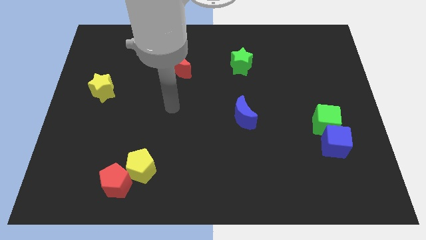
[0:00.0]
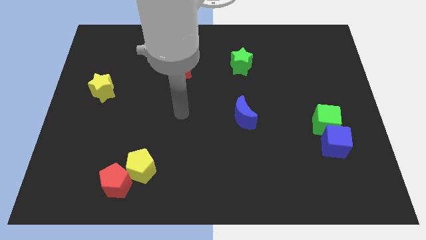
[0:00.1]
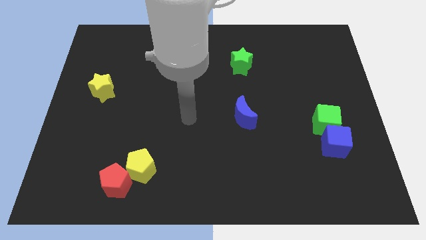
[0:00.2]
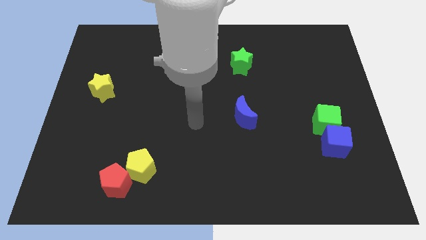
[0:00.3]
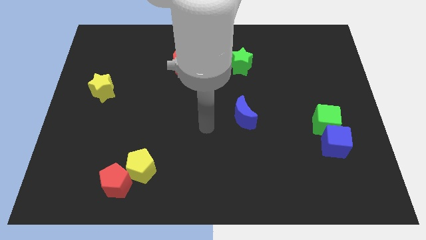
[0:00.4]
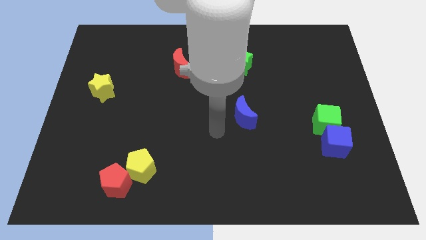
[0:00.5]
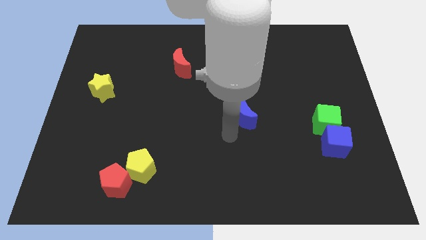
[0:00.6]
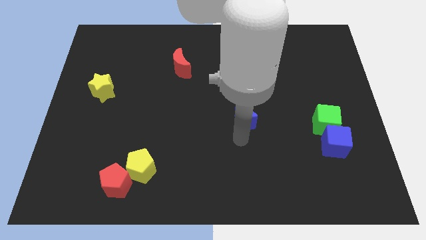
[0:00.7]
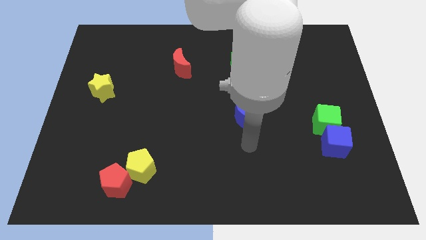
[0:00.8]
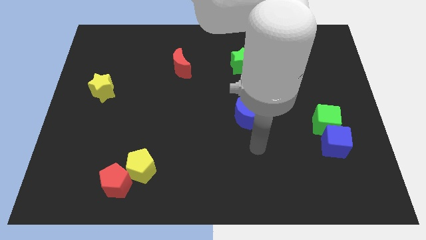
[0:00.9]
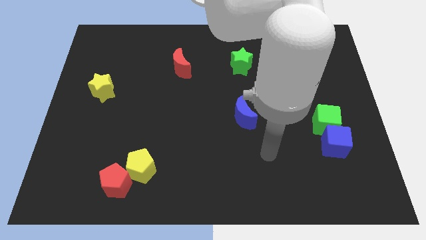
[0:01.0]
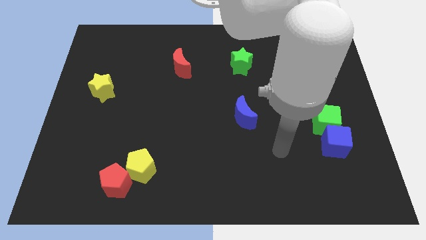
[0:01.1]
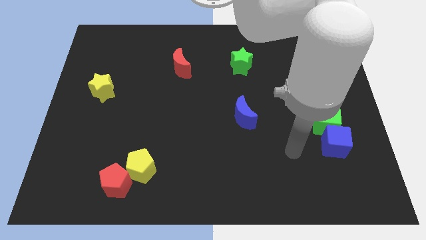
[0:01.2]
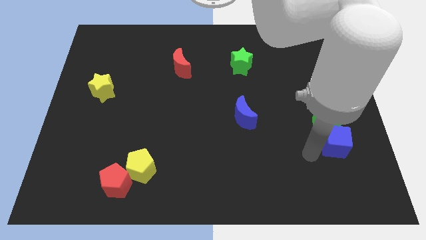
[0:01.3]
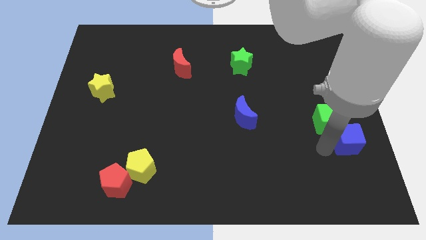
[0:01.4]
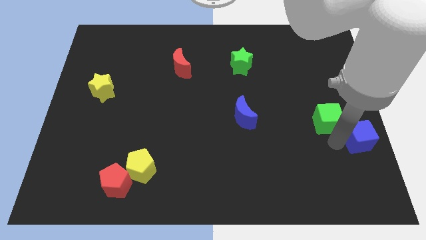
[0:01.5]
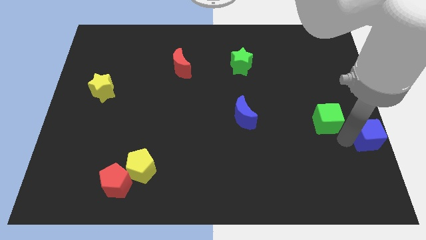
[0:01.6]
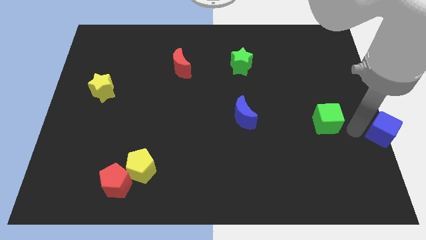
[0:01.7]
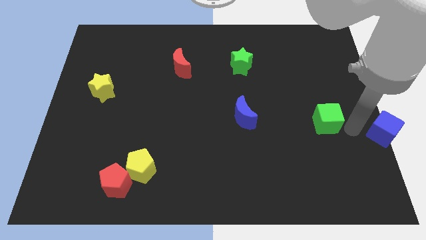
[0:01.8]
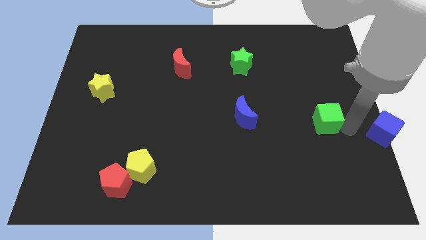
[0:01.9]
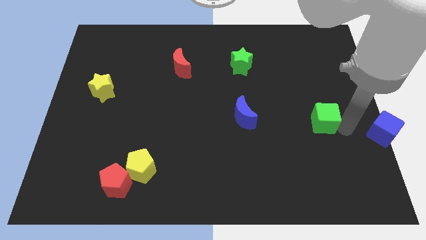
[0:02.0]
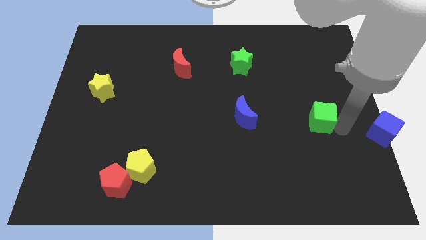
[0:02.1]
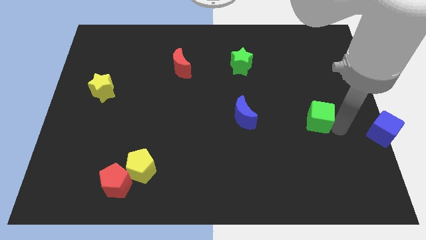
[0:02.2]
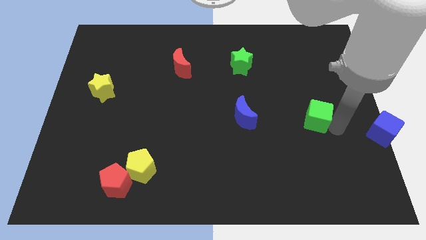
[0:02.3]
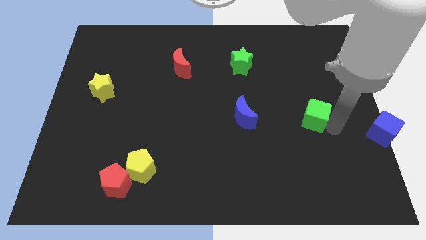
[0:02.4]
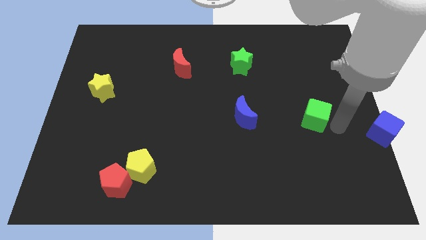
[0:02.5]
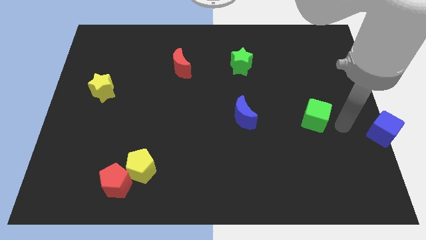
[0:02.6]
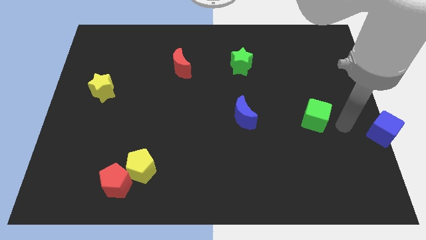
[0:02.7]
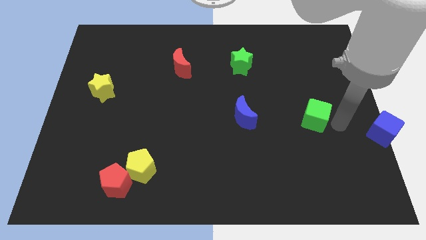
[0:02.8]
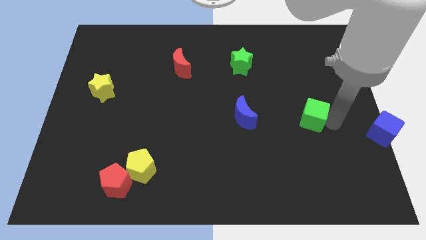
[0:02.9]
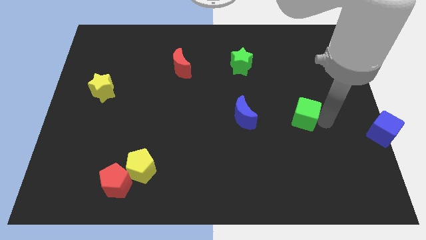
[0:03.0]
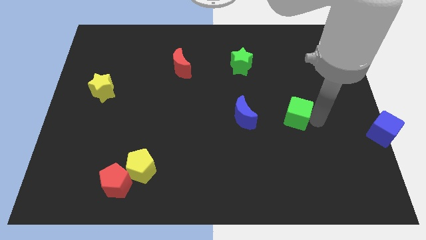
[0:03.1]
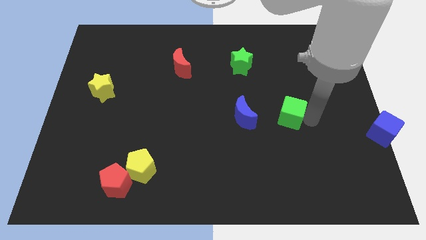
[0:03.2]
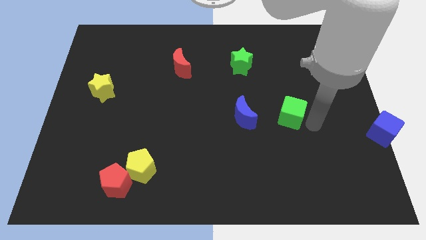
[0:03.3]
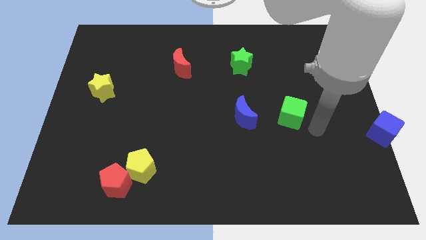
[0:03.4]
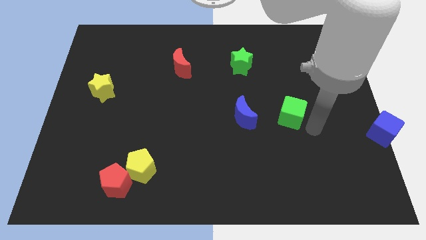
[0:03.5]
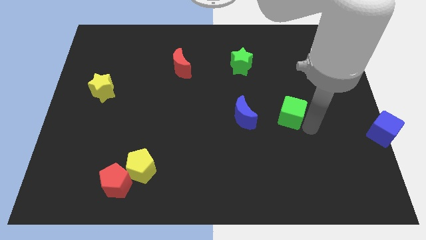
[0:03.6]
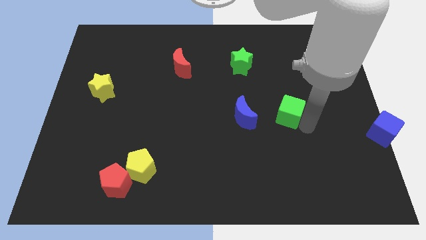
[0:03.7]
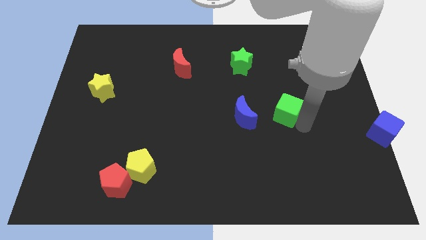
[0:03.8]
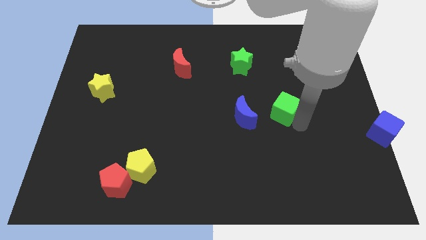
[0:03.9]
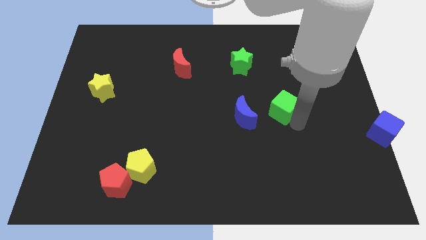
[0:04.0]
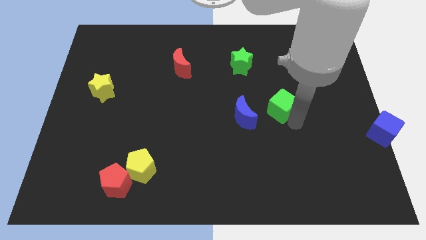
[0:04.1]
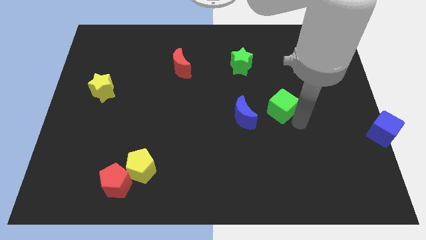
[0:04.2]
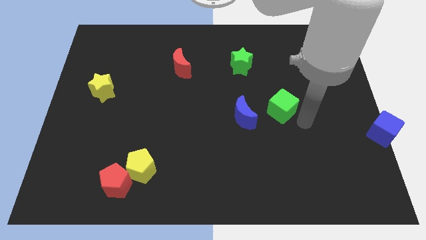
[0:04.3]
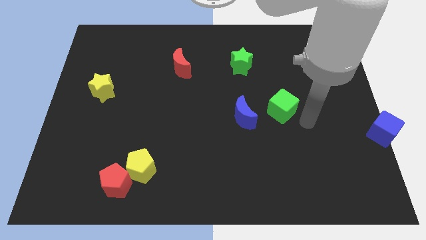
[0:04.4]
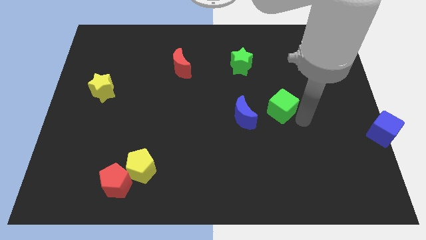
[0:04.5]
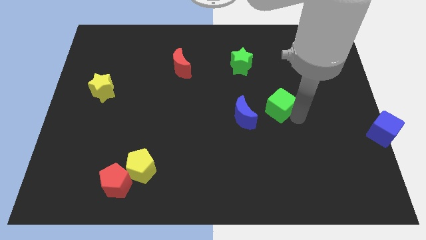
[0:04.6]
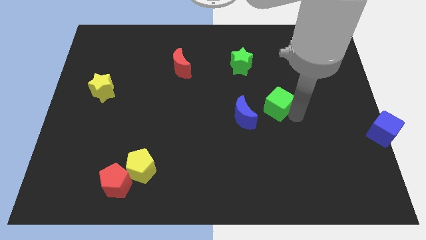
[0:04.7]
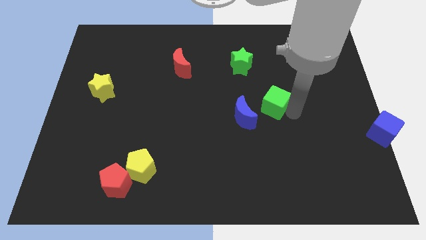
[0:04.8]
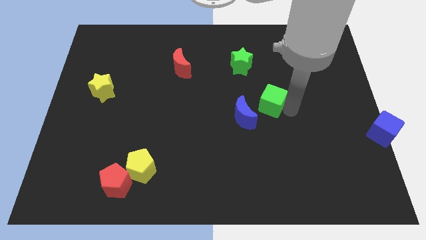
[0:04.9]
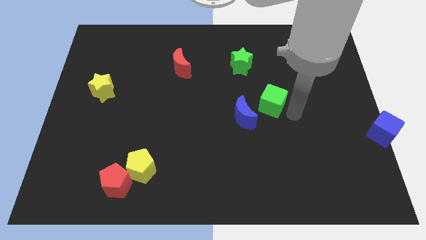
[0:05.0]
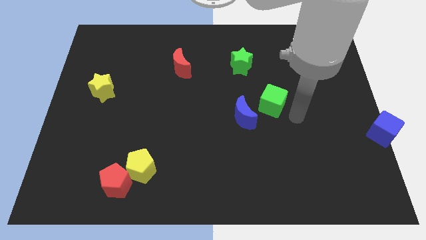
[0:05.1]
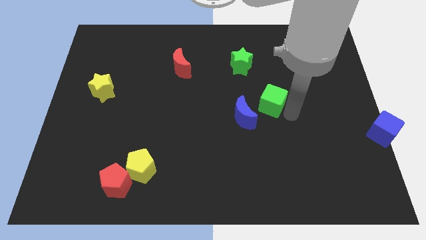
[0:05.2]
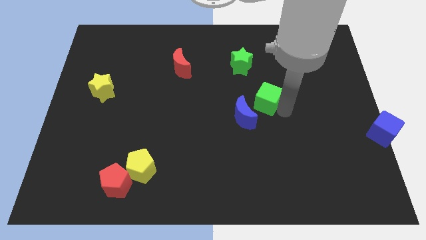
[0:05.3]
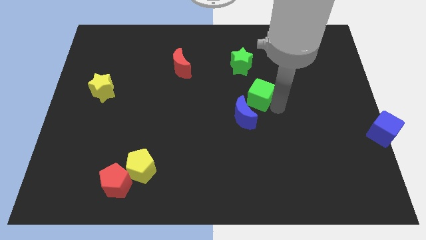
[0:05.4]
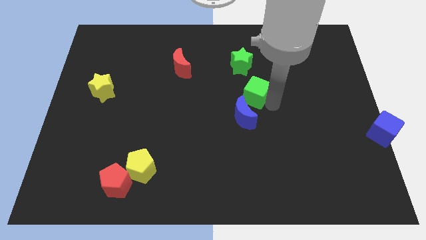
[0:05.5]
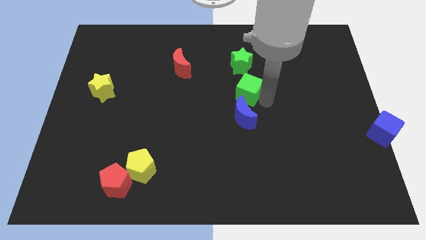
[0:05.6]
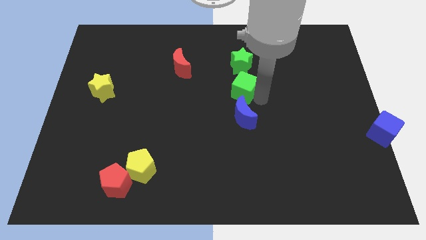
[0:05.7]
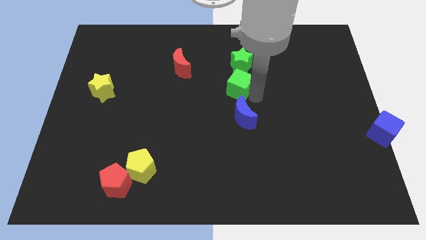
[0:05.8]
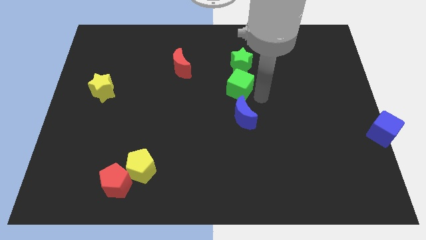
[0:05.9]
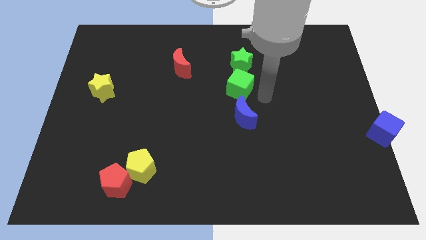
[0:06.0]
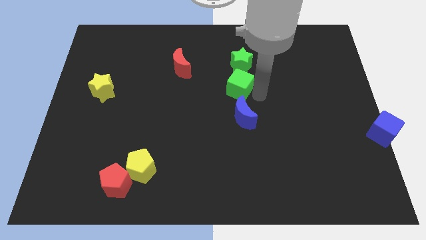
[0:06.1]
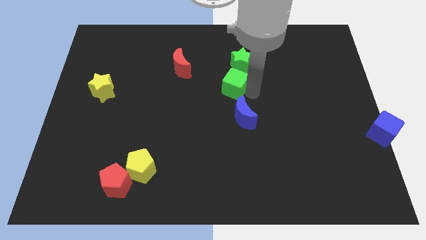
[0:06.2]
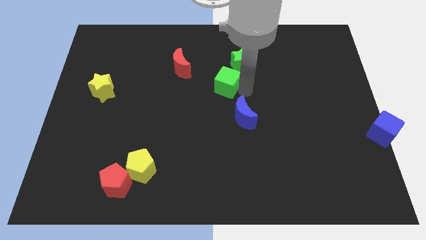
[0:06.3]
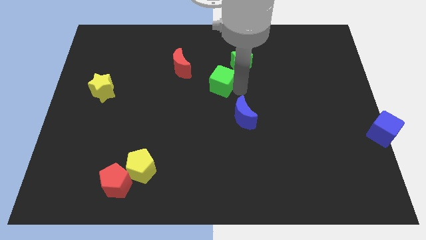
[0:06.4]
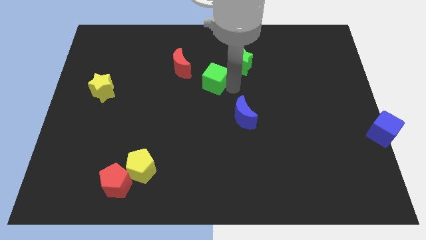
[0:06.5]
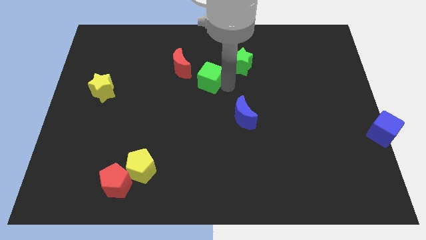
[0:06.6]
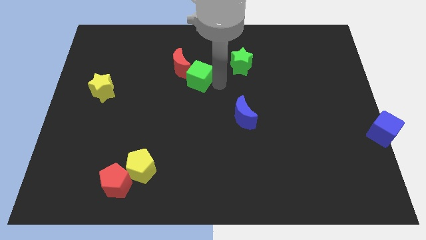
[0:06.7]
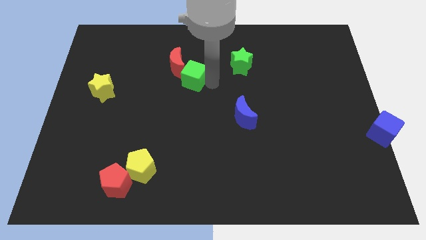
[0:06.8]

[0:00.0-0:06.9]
move the green cube towards the red moon
